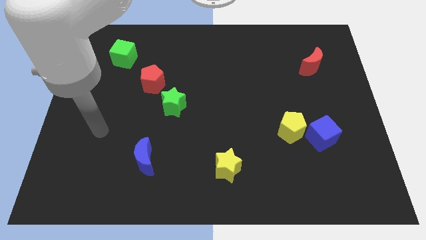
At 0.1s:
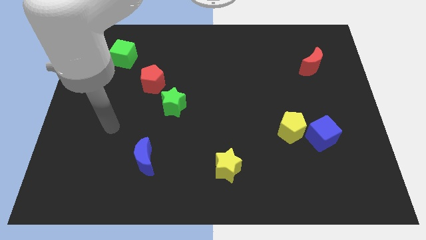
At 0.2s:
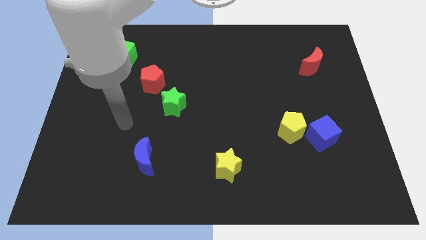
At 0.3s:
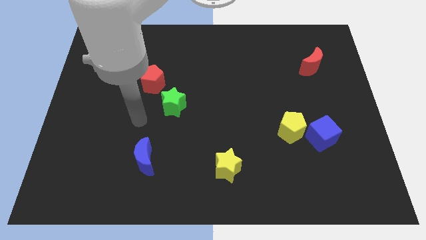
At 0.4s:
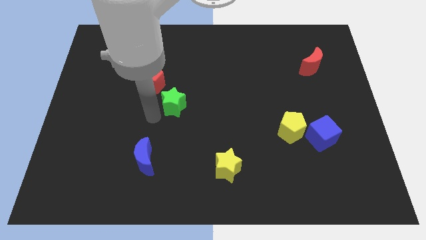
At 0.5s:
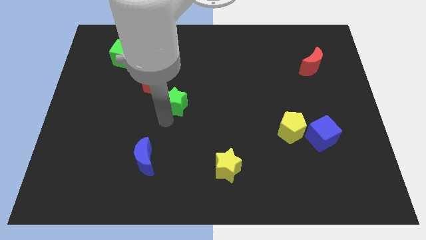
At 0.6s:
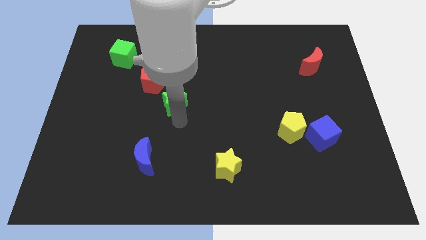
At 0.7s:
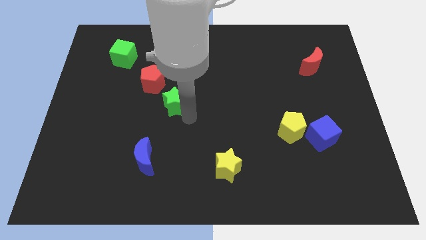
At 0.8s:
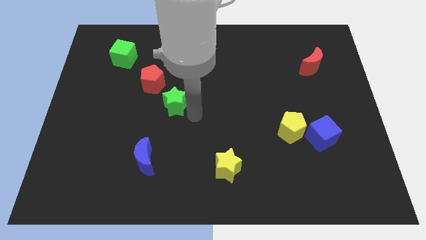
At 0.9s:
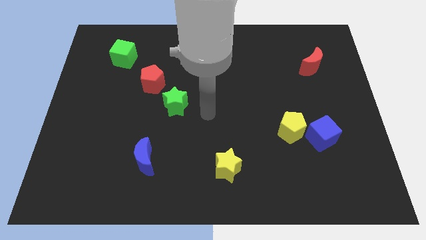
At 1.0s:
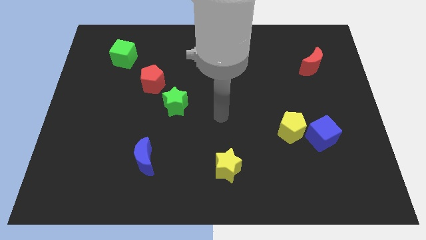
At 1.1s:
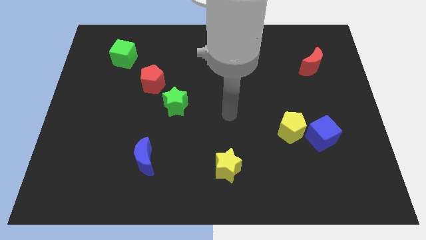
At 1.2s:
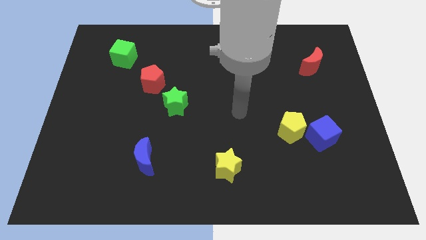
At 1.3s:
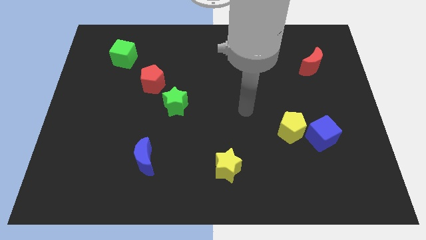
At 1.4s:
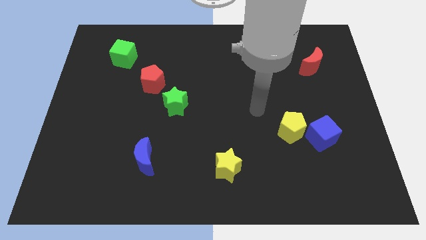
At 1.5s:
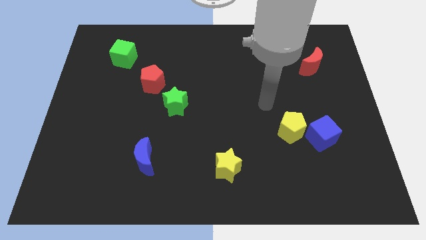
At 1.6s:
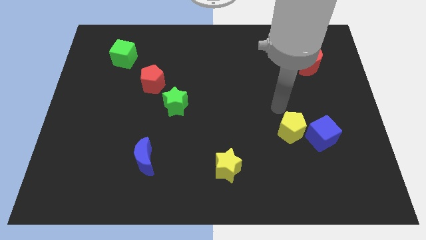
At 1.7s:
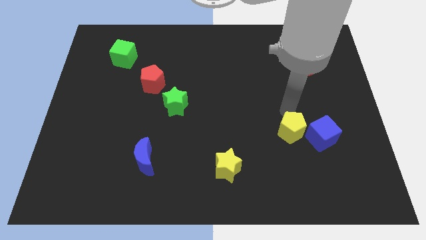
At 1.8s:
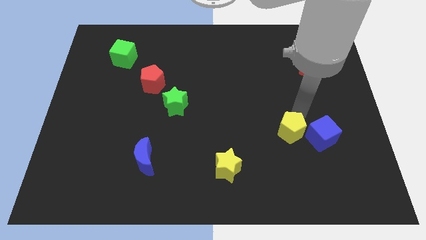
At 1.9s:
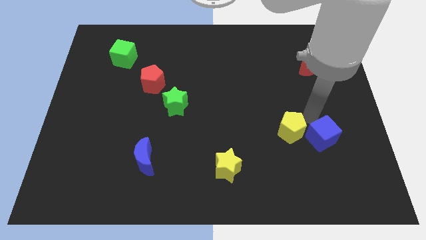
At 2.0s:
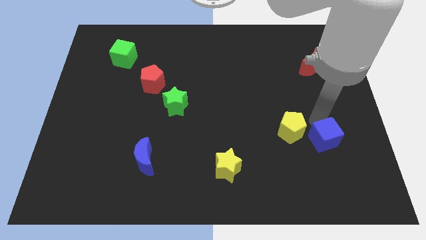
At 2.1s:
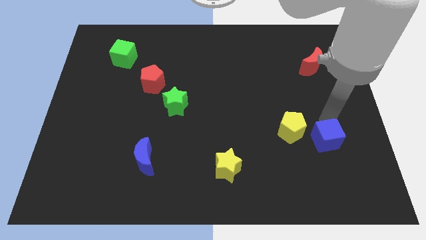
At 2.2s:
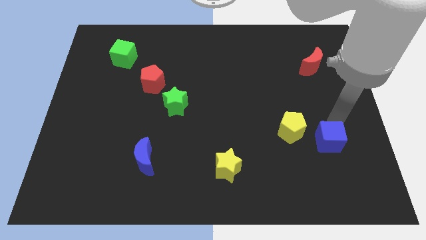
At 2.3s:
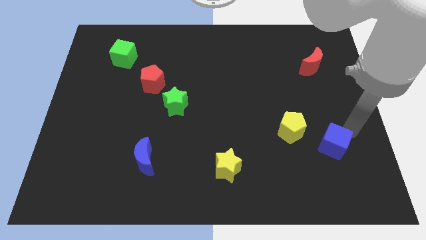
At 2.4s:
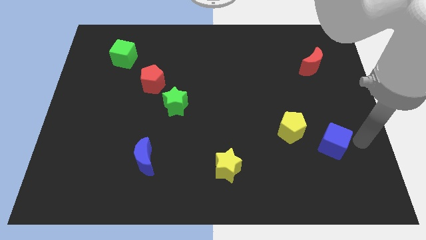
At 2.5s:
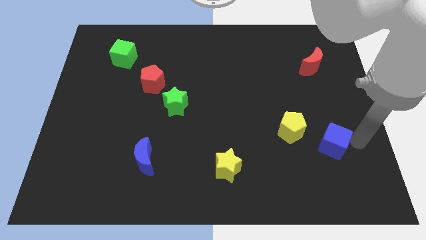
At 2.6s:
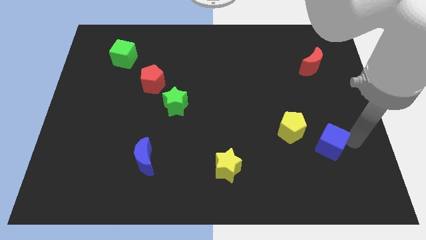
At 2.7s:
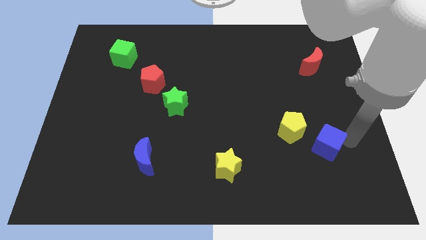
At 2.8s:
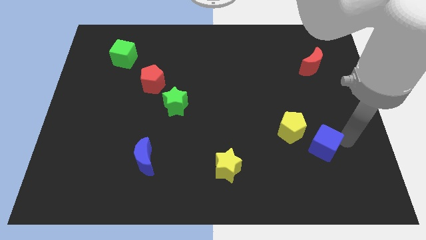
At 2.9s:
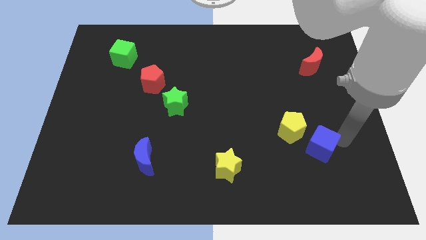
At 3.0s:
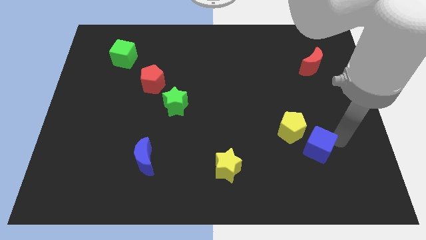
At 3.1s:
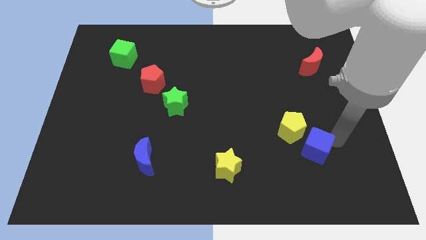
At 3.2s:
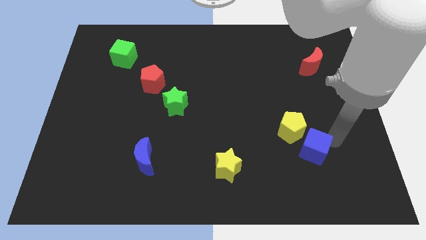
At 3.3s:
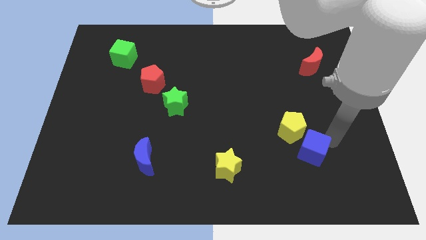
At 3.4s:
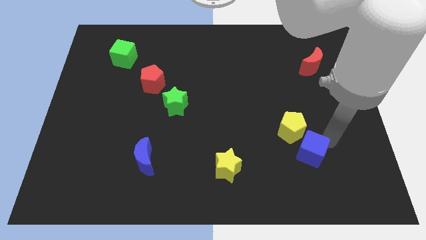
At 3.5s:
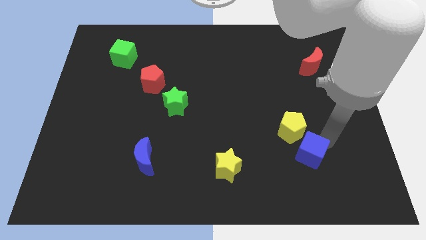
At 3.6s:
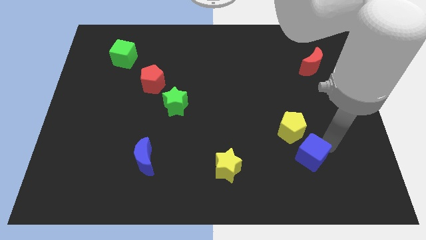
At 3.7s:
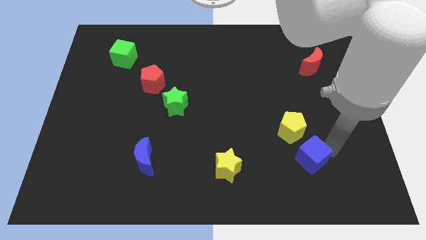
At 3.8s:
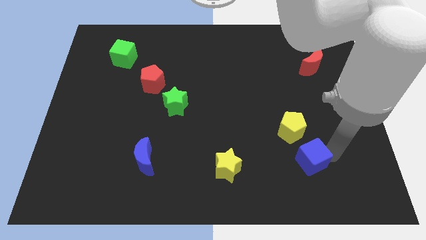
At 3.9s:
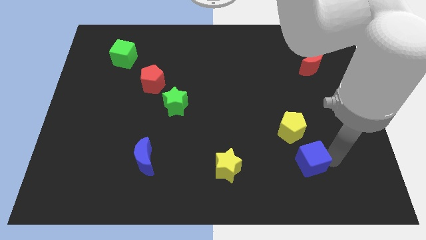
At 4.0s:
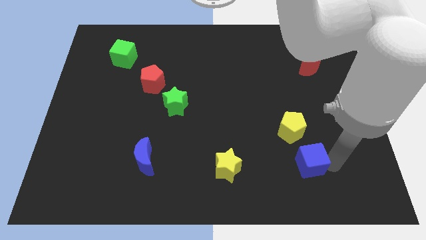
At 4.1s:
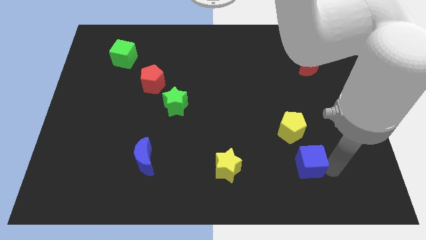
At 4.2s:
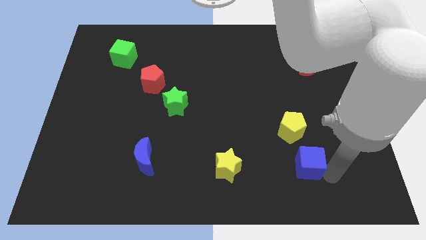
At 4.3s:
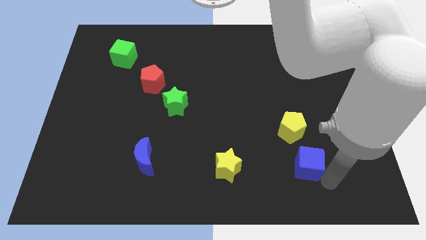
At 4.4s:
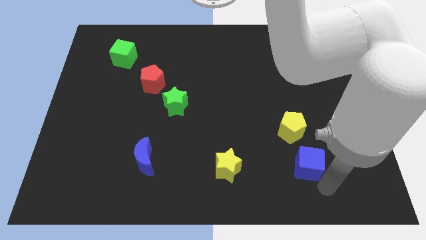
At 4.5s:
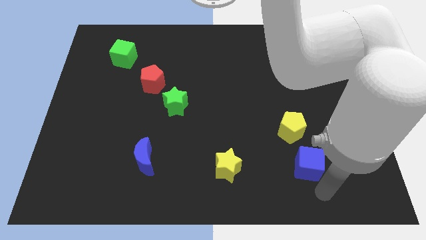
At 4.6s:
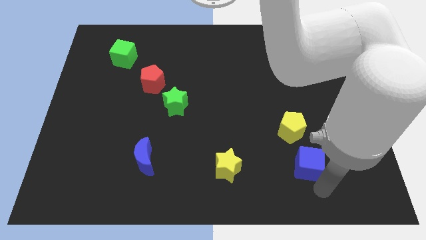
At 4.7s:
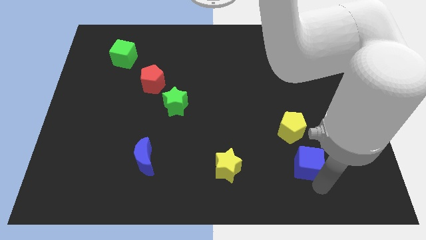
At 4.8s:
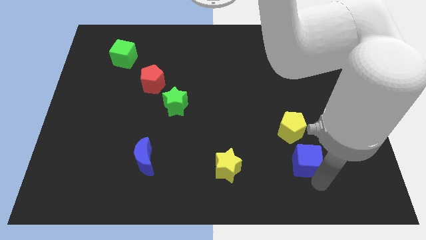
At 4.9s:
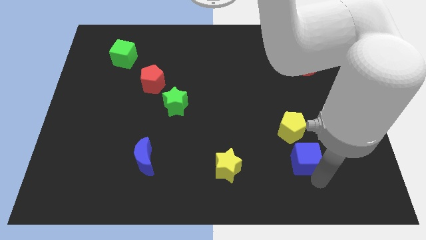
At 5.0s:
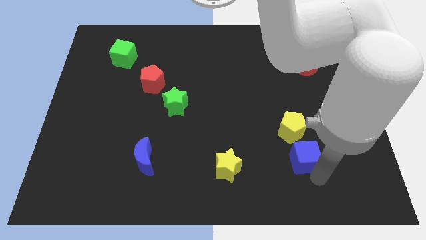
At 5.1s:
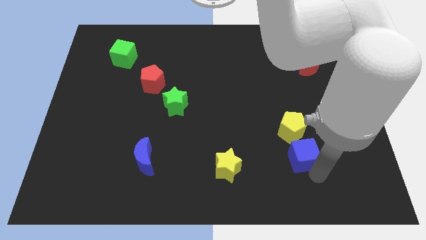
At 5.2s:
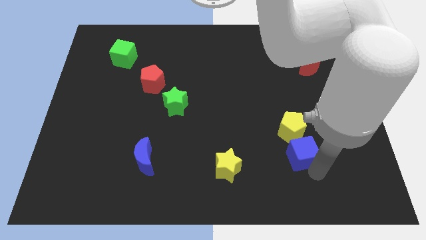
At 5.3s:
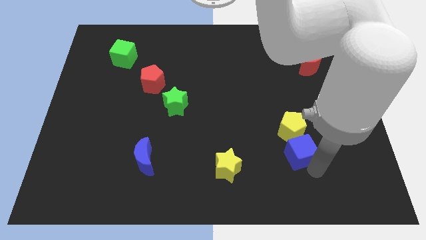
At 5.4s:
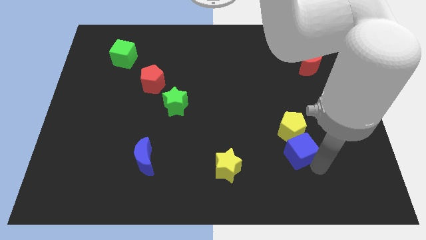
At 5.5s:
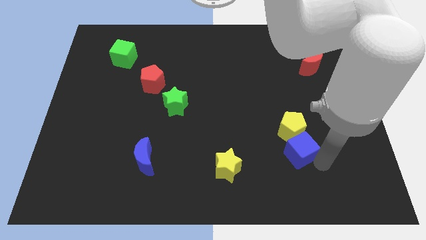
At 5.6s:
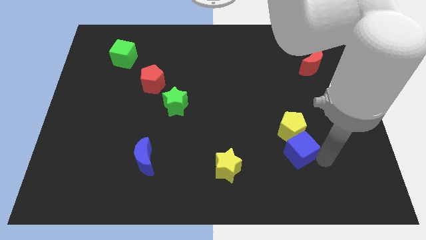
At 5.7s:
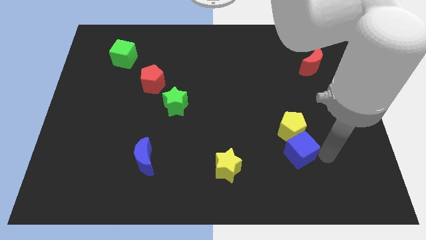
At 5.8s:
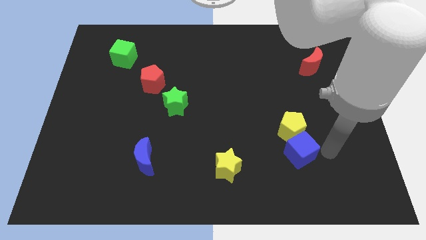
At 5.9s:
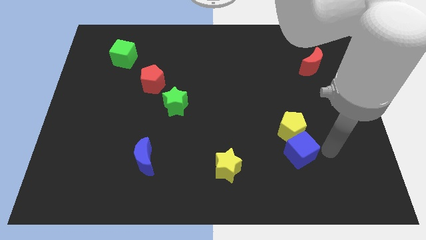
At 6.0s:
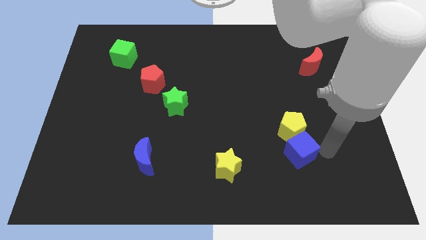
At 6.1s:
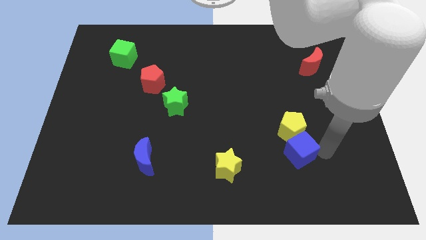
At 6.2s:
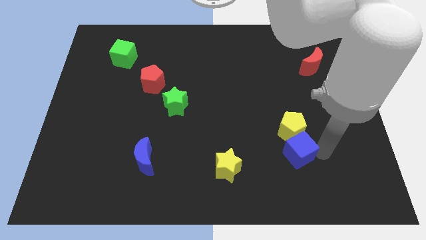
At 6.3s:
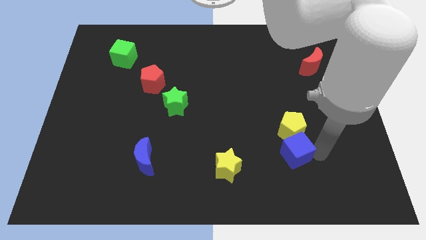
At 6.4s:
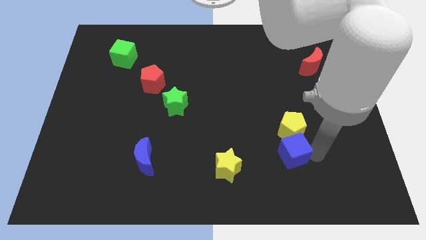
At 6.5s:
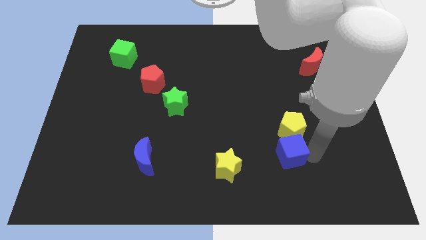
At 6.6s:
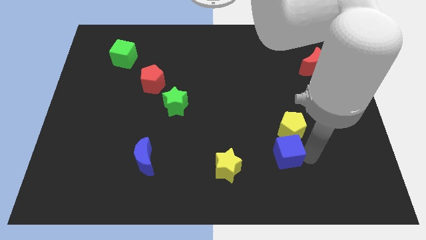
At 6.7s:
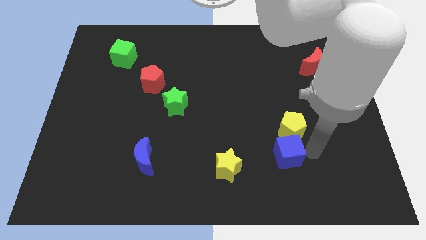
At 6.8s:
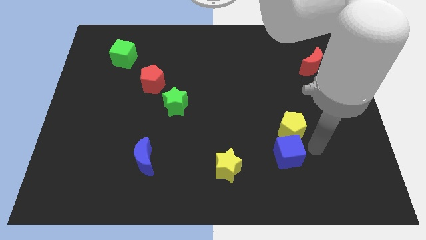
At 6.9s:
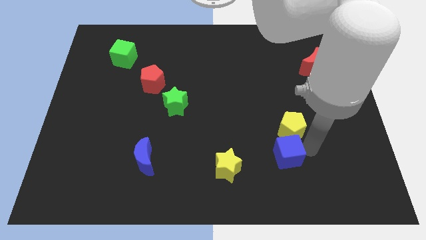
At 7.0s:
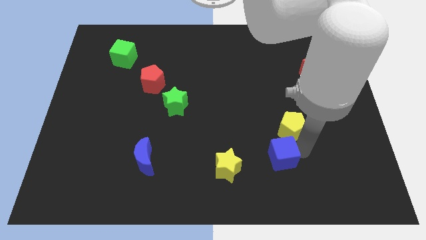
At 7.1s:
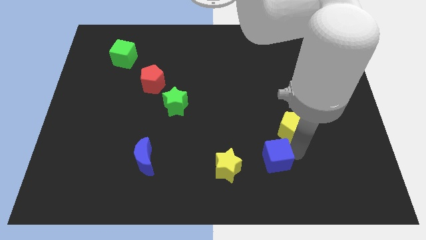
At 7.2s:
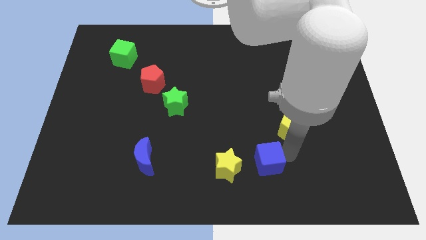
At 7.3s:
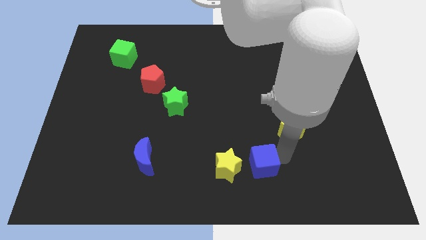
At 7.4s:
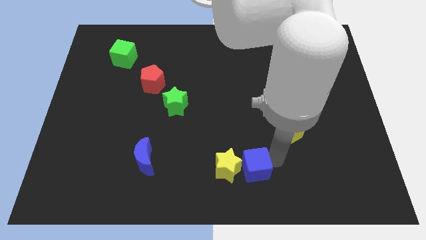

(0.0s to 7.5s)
move the blue cube next to the yellow star
